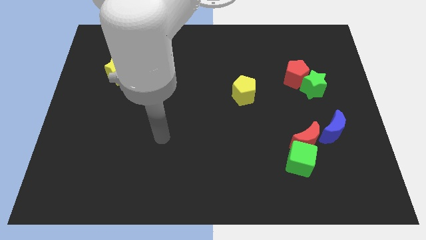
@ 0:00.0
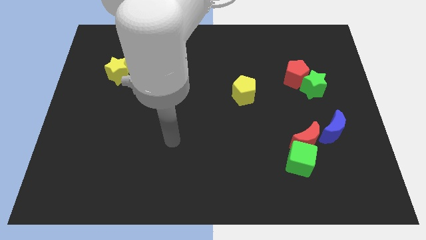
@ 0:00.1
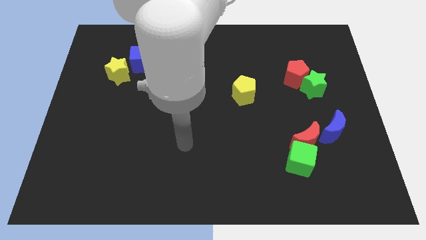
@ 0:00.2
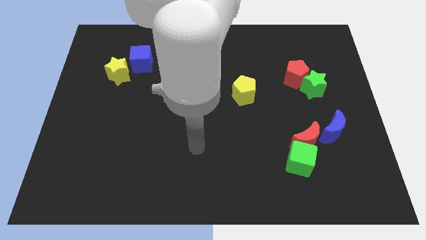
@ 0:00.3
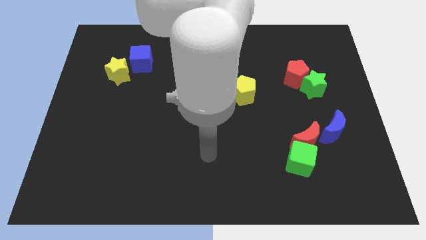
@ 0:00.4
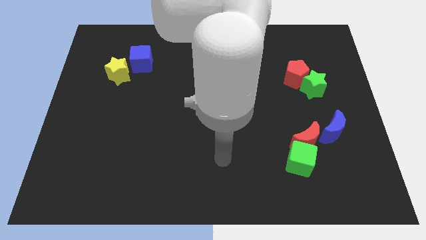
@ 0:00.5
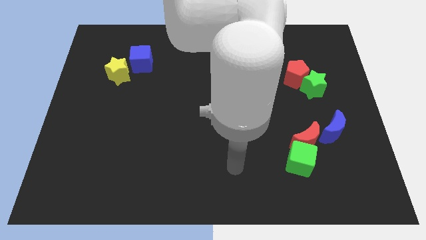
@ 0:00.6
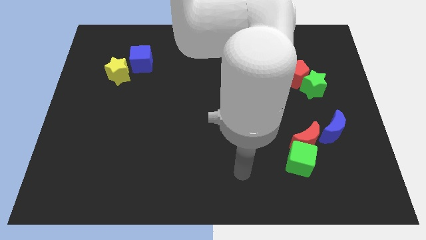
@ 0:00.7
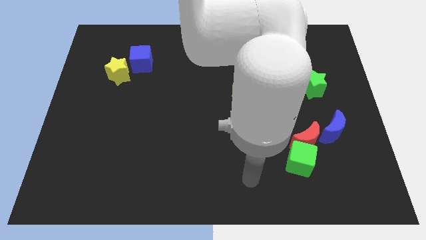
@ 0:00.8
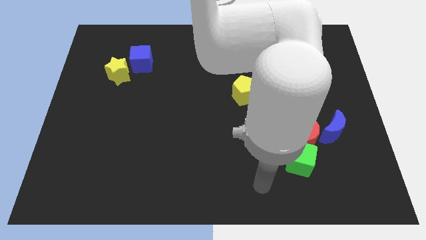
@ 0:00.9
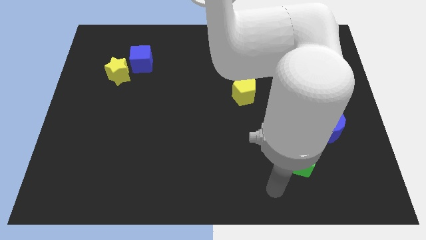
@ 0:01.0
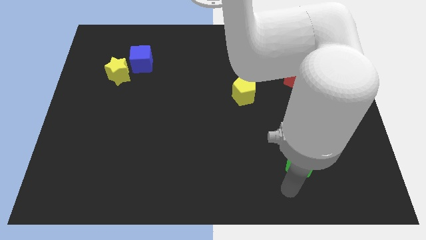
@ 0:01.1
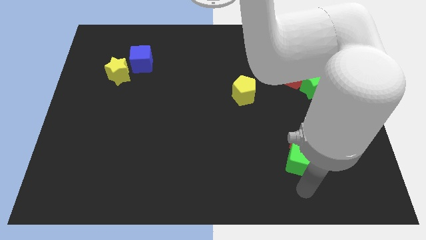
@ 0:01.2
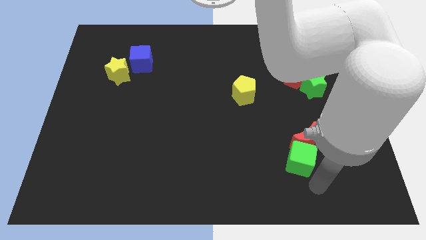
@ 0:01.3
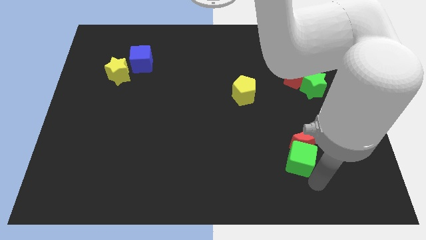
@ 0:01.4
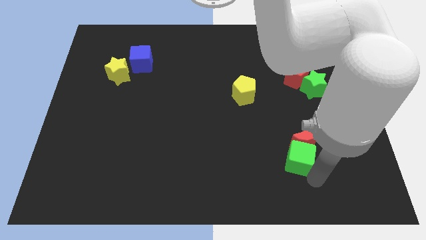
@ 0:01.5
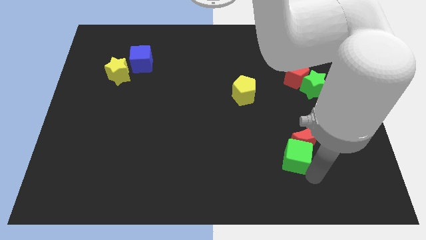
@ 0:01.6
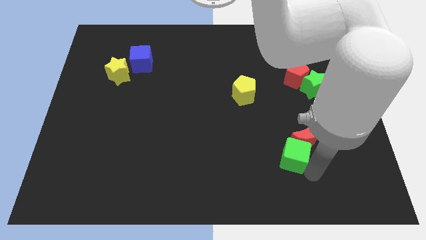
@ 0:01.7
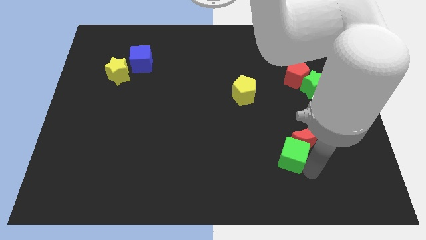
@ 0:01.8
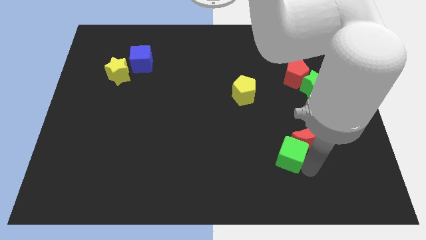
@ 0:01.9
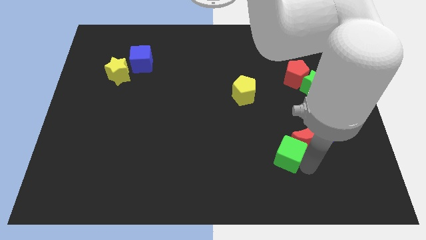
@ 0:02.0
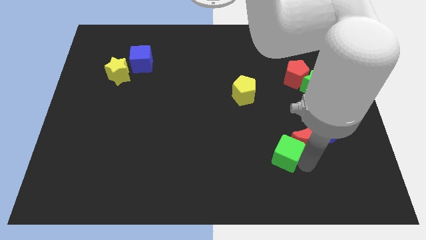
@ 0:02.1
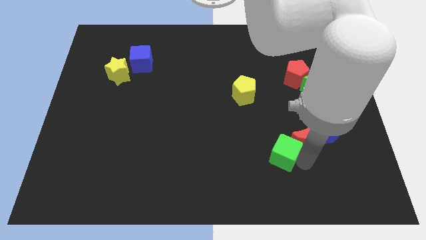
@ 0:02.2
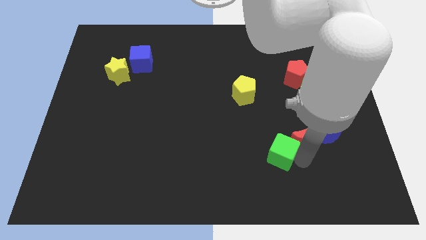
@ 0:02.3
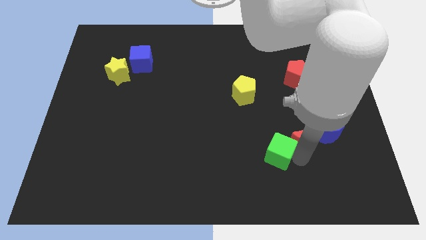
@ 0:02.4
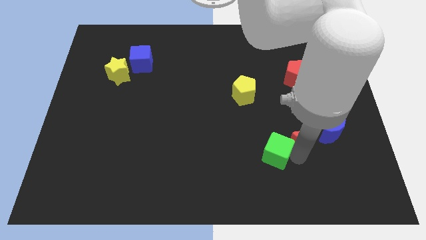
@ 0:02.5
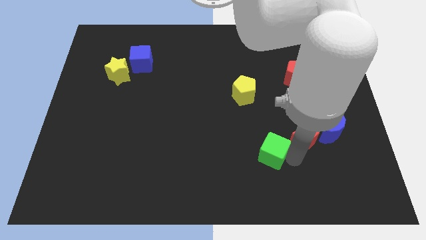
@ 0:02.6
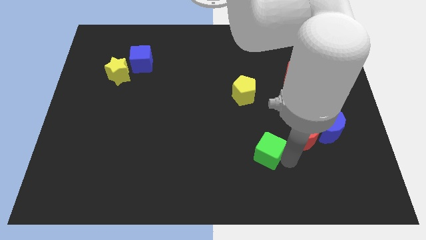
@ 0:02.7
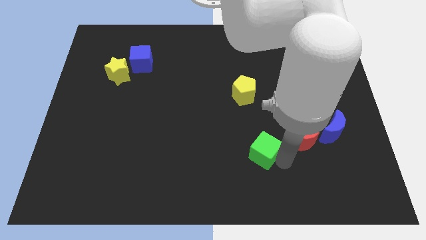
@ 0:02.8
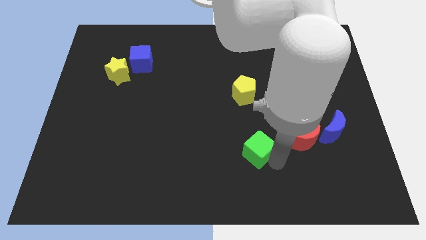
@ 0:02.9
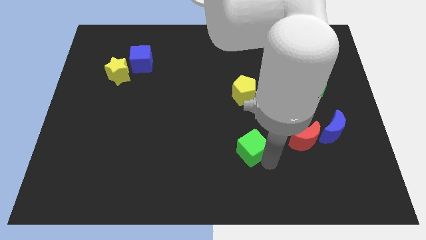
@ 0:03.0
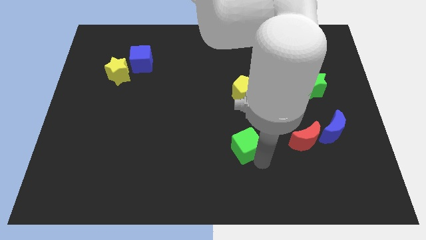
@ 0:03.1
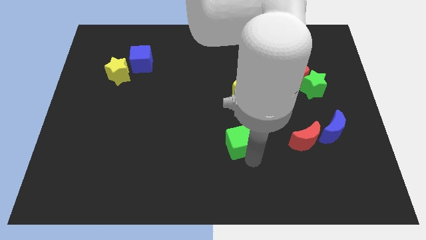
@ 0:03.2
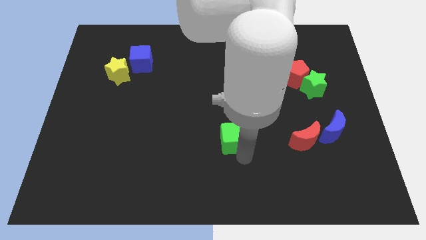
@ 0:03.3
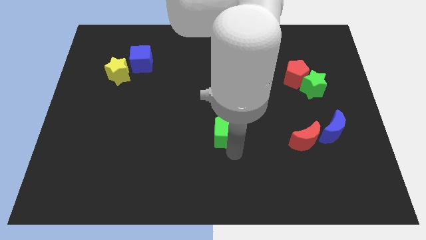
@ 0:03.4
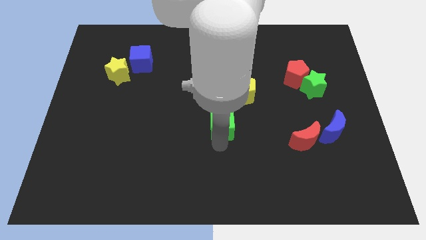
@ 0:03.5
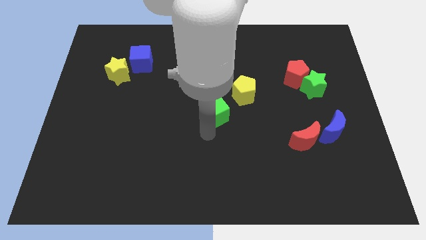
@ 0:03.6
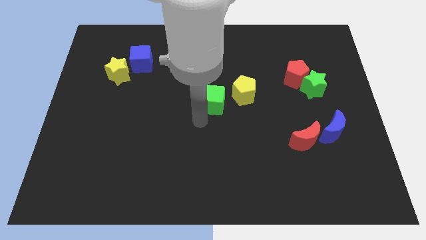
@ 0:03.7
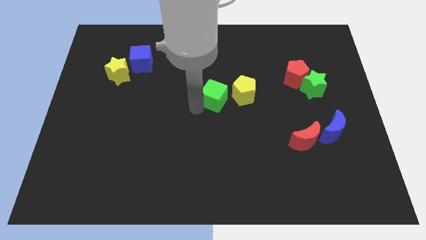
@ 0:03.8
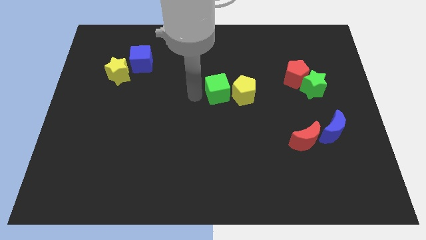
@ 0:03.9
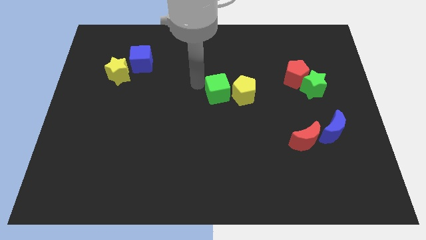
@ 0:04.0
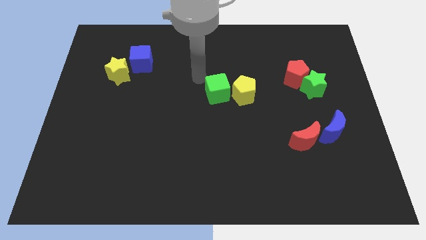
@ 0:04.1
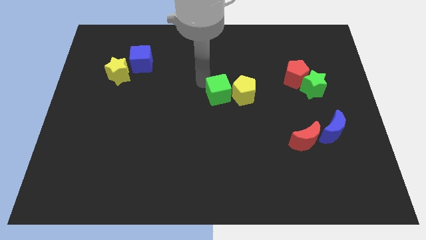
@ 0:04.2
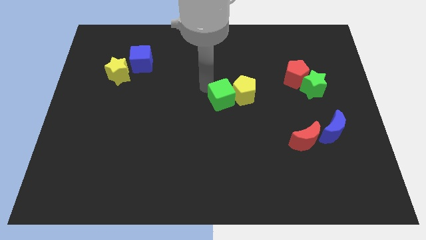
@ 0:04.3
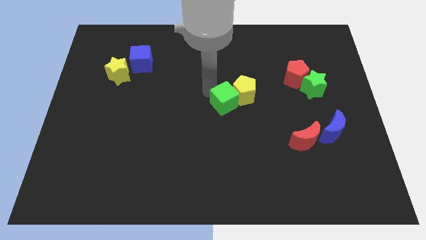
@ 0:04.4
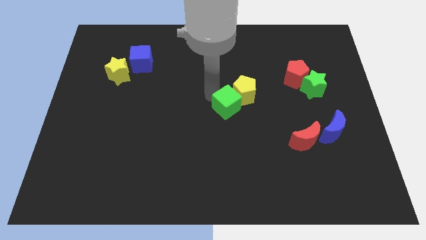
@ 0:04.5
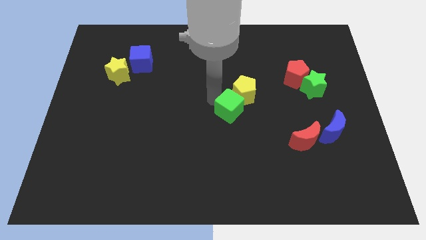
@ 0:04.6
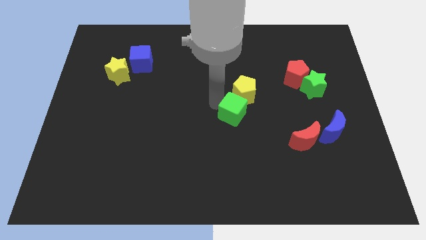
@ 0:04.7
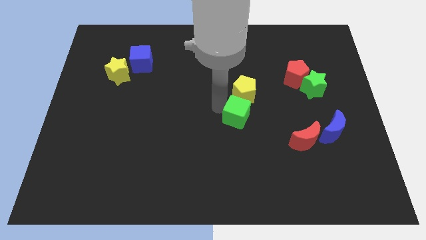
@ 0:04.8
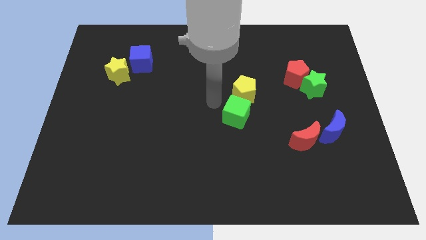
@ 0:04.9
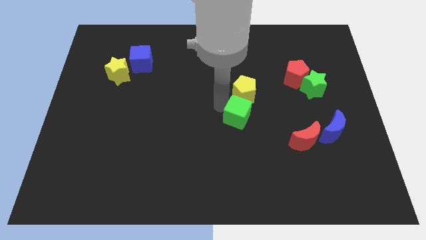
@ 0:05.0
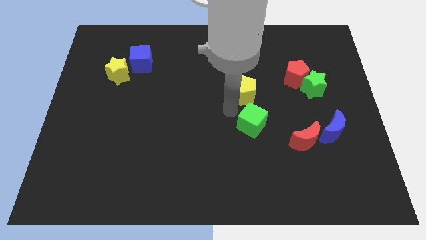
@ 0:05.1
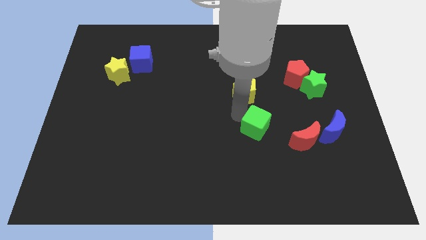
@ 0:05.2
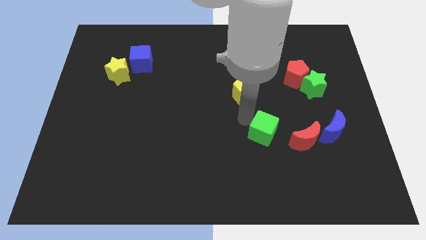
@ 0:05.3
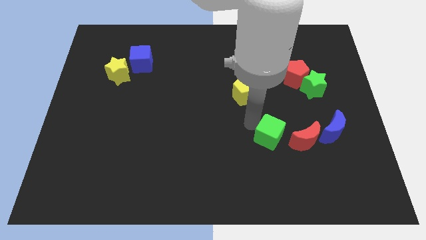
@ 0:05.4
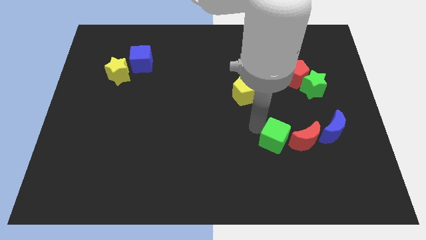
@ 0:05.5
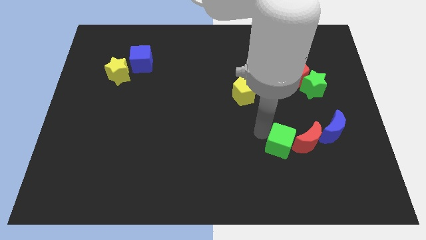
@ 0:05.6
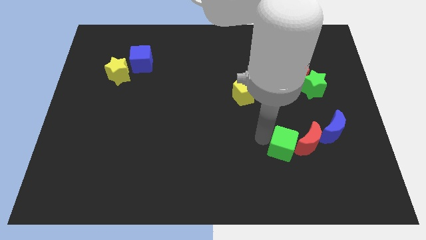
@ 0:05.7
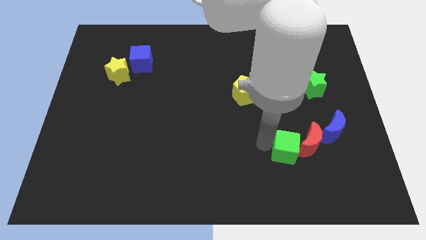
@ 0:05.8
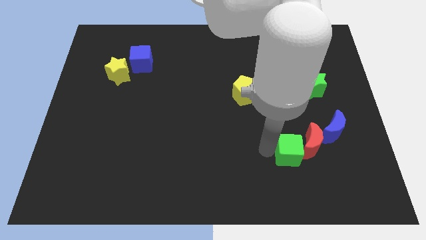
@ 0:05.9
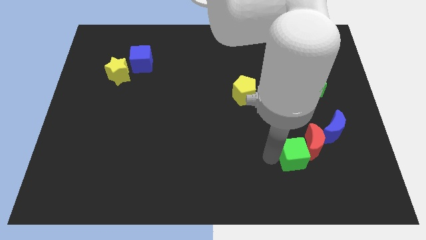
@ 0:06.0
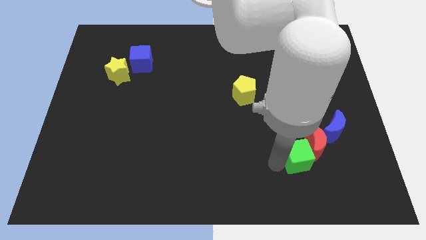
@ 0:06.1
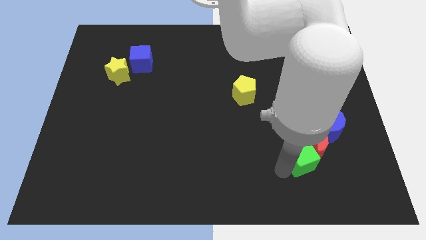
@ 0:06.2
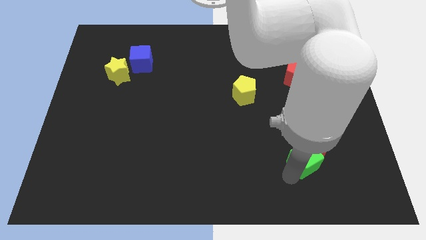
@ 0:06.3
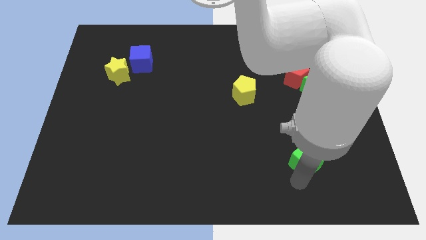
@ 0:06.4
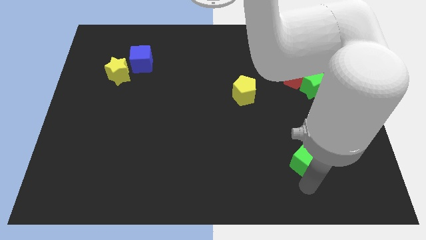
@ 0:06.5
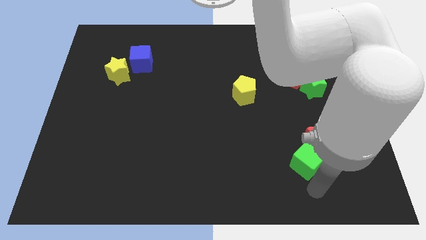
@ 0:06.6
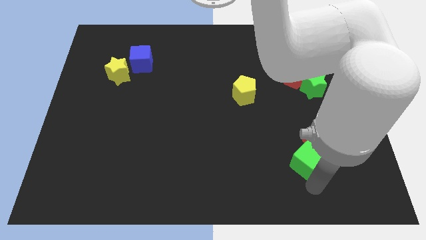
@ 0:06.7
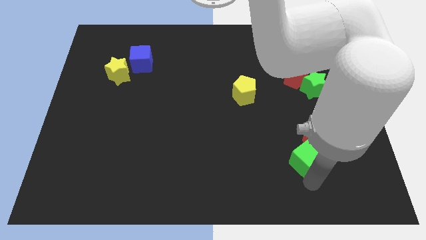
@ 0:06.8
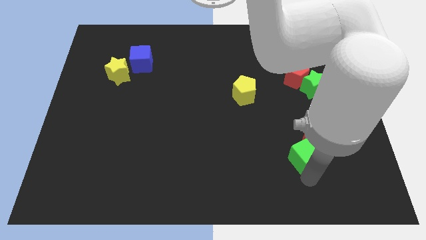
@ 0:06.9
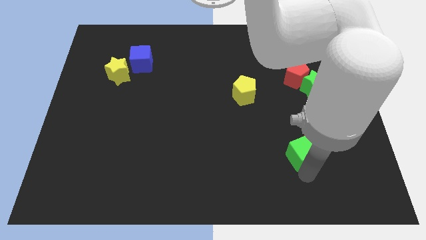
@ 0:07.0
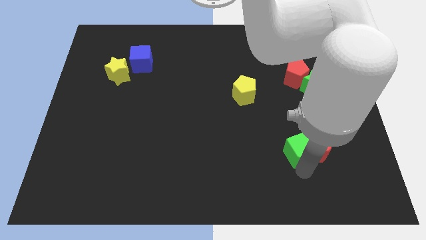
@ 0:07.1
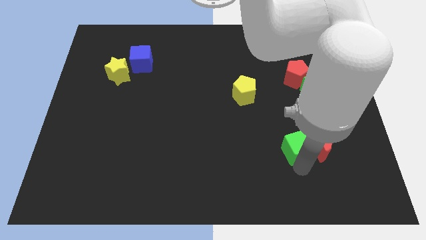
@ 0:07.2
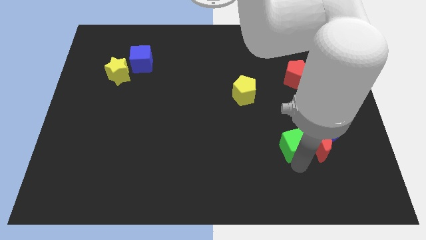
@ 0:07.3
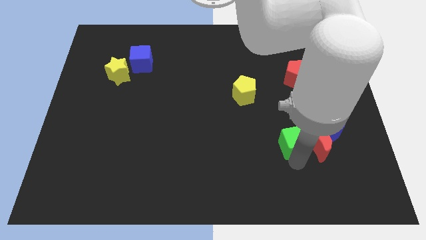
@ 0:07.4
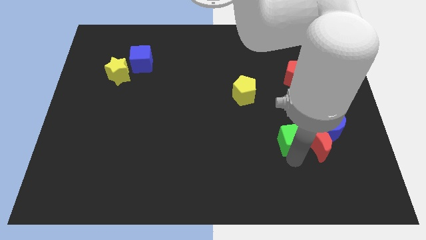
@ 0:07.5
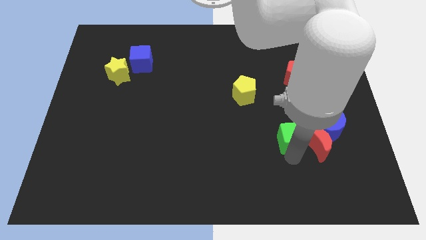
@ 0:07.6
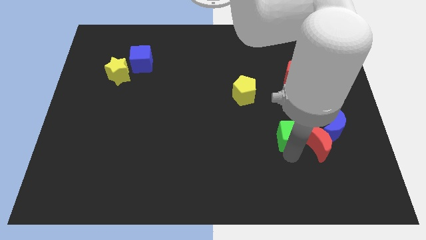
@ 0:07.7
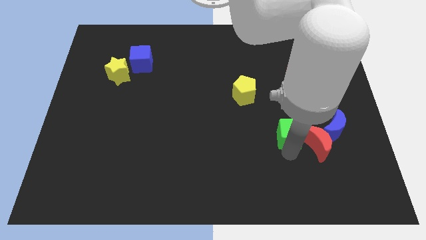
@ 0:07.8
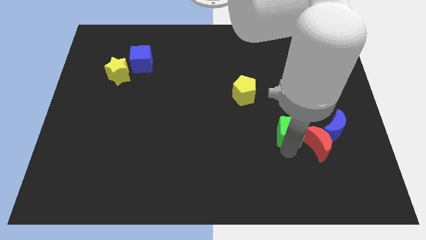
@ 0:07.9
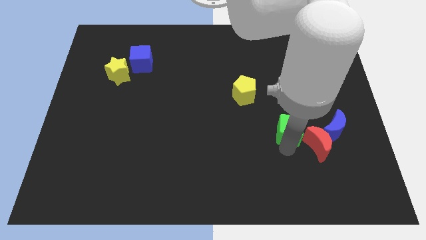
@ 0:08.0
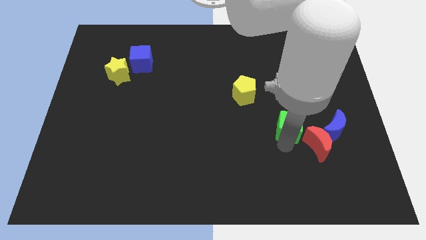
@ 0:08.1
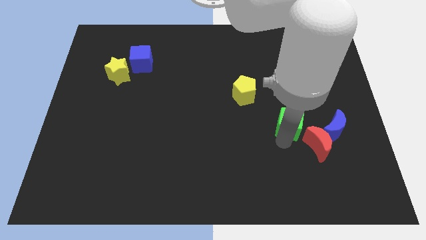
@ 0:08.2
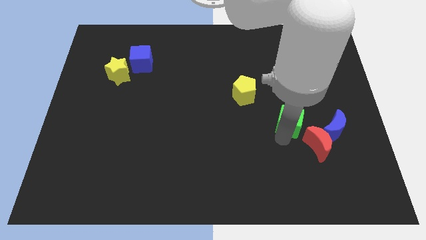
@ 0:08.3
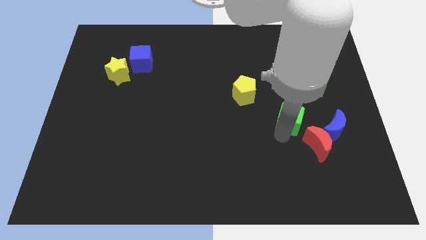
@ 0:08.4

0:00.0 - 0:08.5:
push the green cube to the bottom left of the green star
